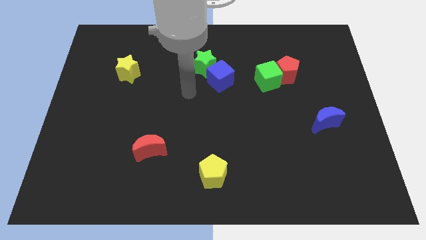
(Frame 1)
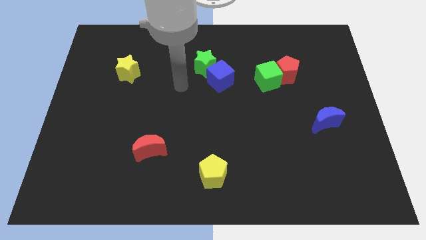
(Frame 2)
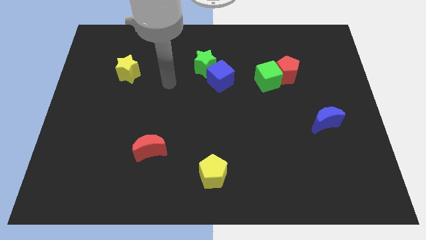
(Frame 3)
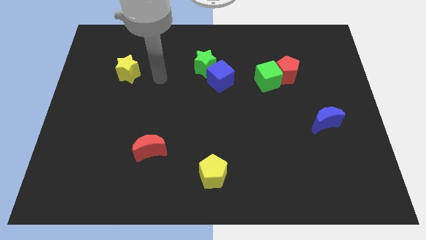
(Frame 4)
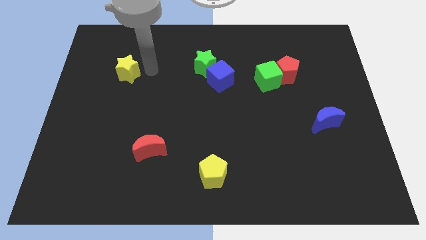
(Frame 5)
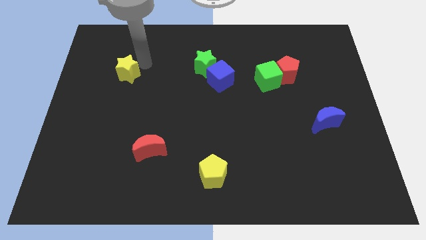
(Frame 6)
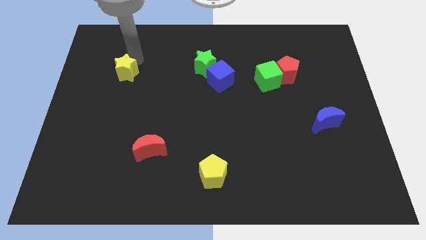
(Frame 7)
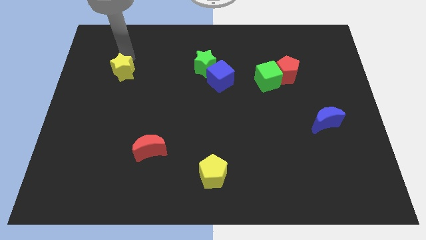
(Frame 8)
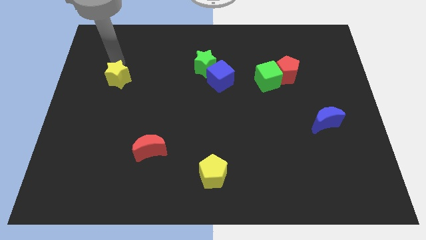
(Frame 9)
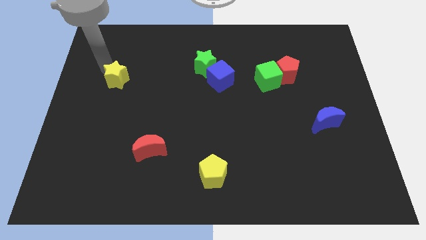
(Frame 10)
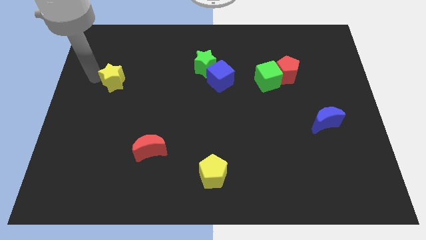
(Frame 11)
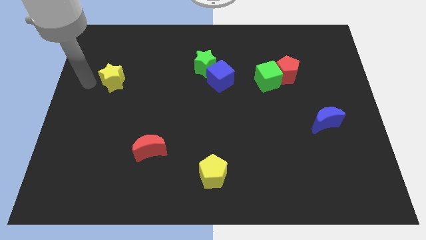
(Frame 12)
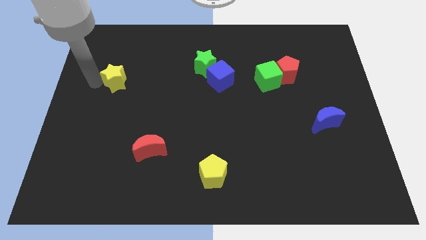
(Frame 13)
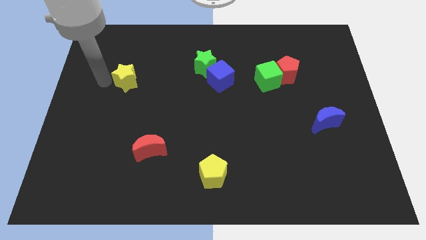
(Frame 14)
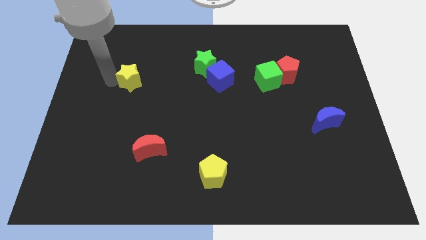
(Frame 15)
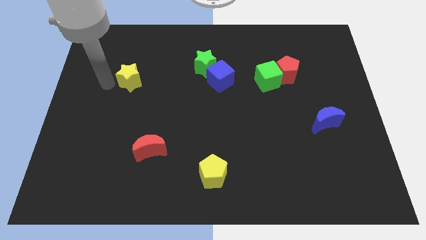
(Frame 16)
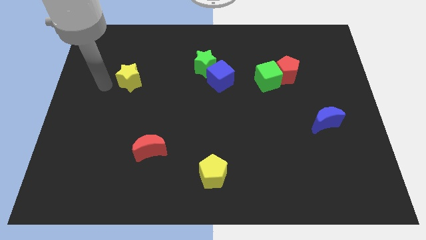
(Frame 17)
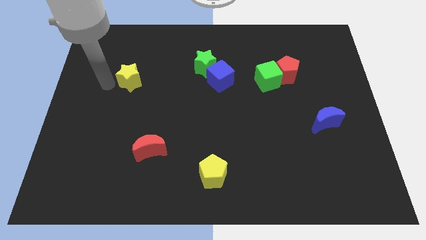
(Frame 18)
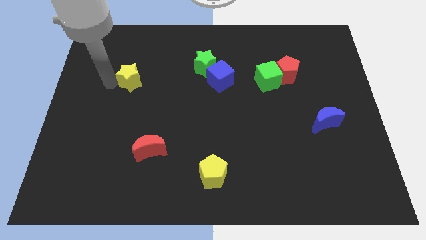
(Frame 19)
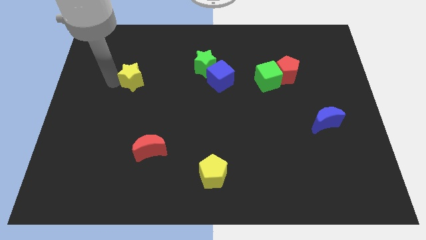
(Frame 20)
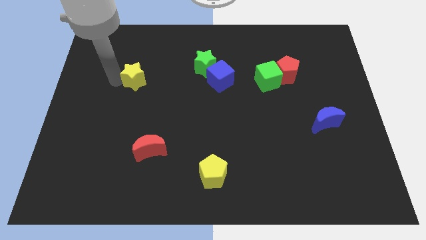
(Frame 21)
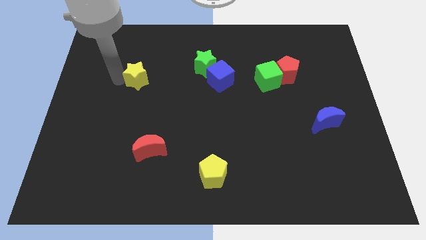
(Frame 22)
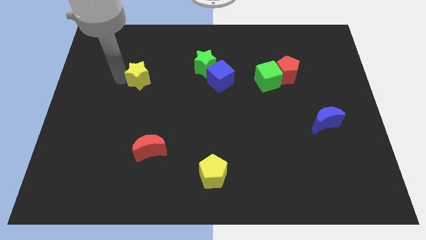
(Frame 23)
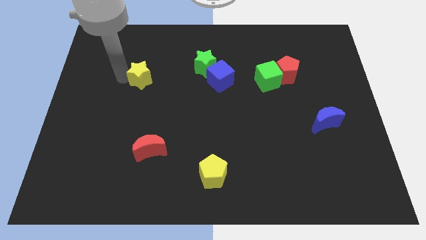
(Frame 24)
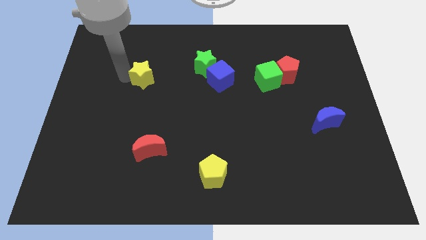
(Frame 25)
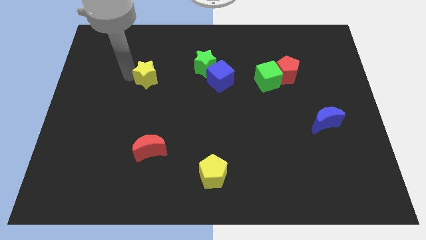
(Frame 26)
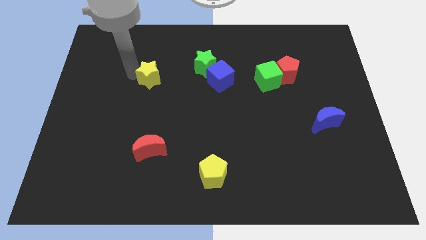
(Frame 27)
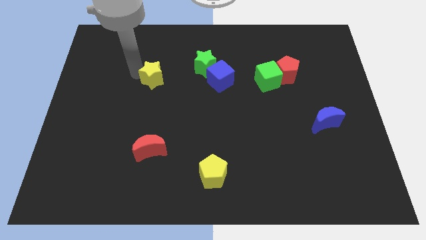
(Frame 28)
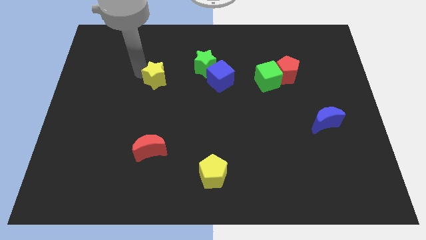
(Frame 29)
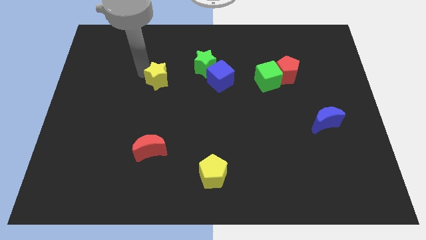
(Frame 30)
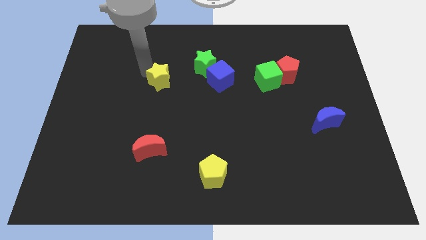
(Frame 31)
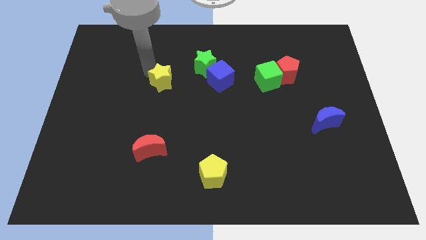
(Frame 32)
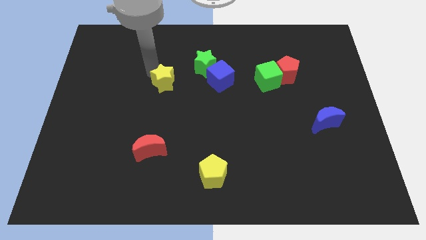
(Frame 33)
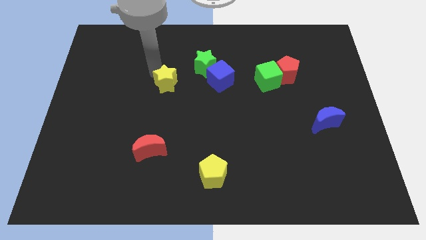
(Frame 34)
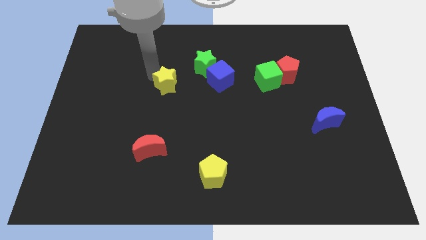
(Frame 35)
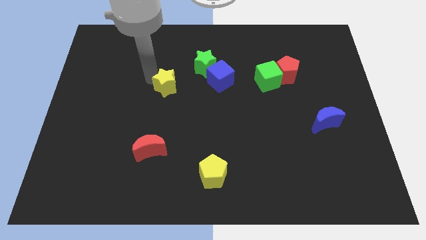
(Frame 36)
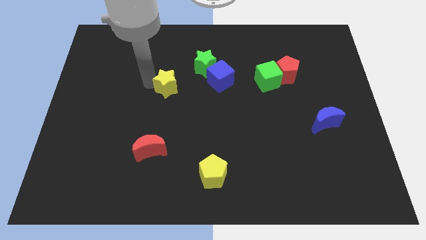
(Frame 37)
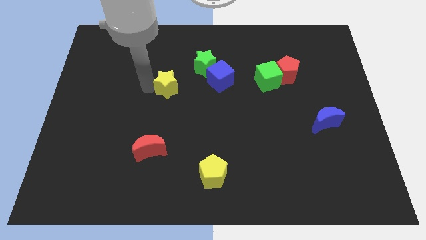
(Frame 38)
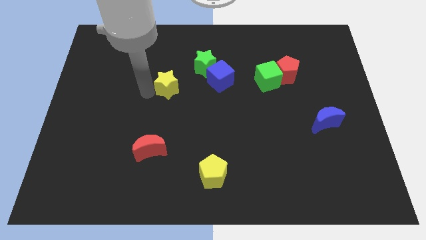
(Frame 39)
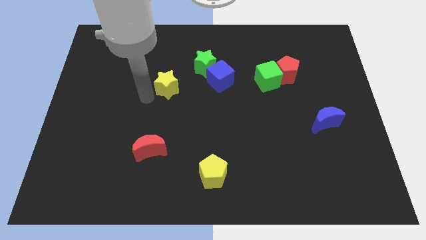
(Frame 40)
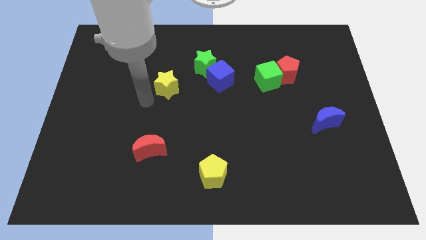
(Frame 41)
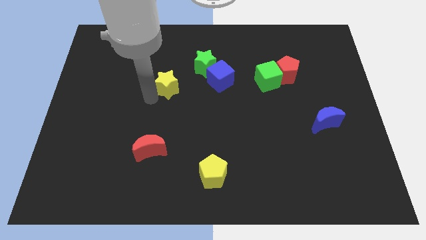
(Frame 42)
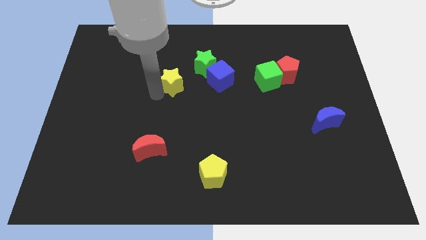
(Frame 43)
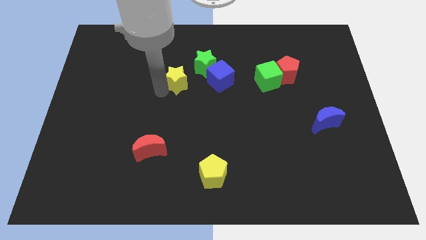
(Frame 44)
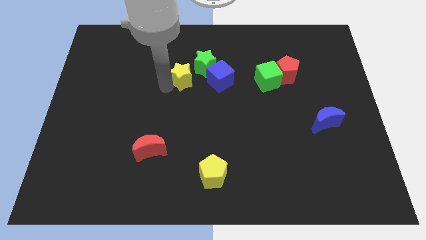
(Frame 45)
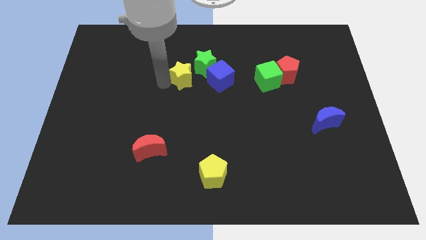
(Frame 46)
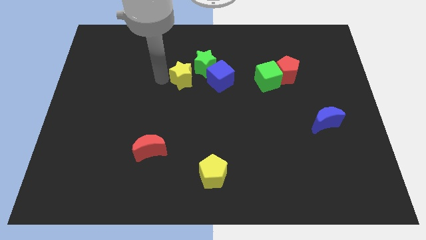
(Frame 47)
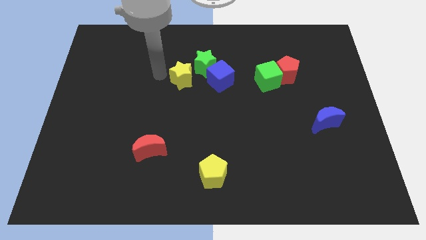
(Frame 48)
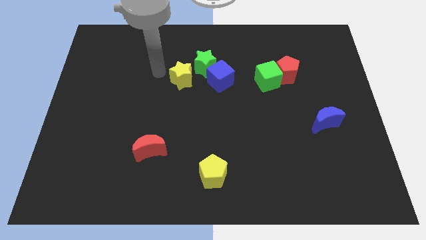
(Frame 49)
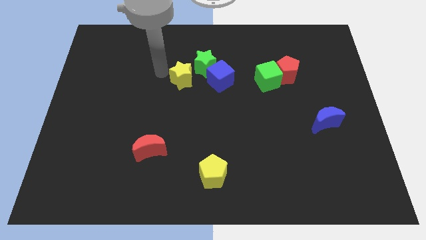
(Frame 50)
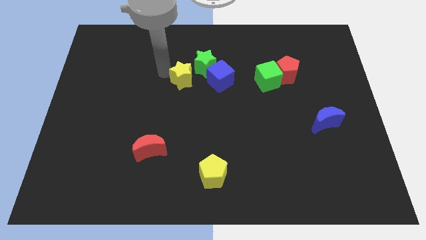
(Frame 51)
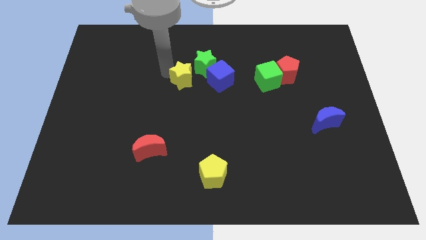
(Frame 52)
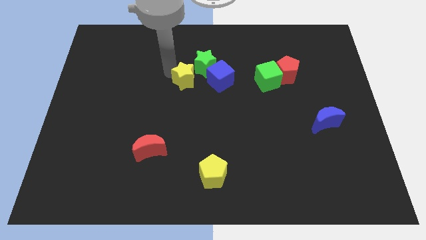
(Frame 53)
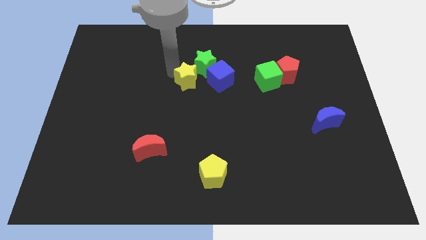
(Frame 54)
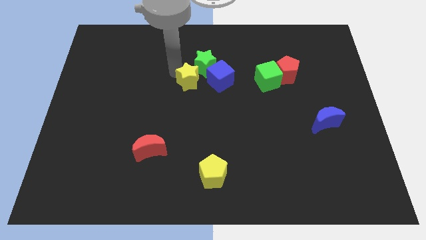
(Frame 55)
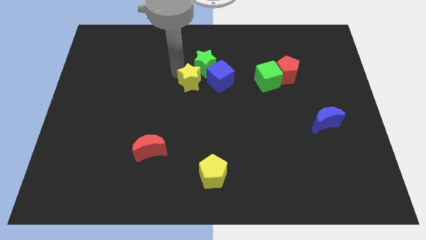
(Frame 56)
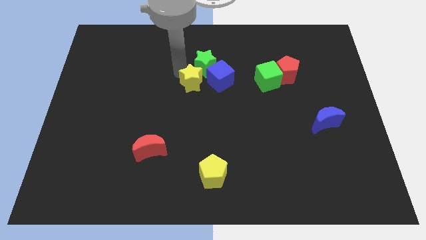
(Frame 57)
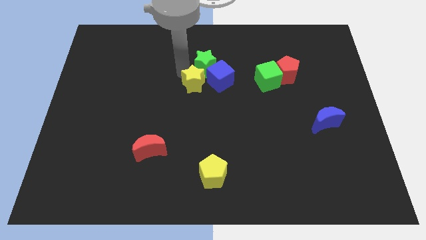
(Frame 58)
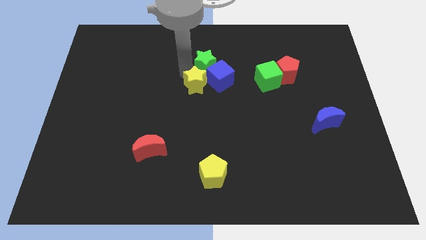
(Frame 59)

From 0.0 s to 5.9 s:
move the yellow star towards the blue cube

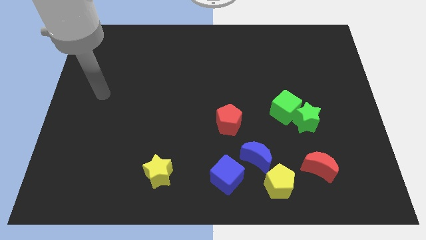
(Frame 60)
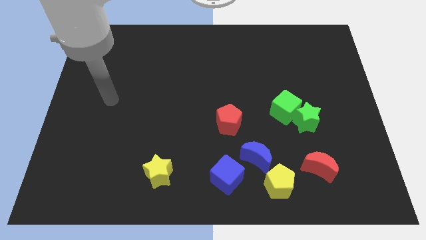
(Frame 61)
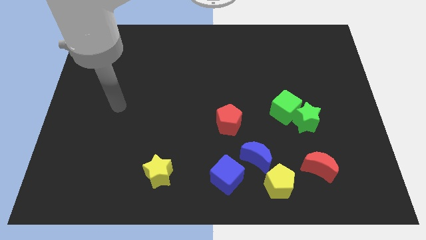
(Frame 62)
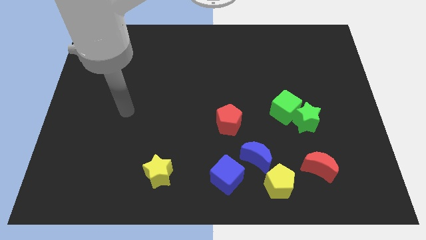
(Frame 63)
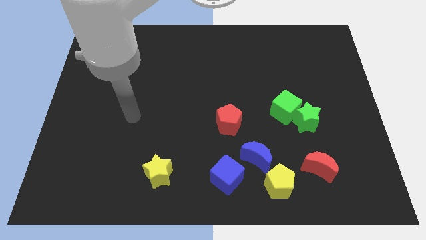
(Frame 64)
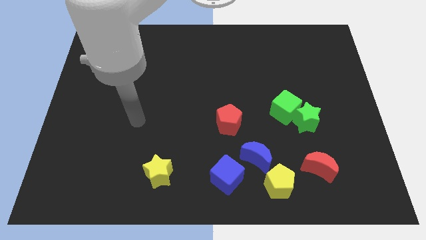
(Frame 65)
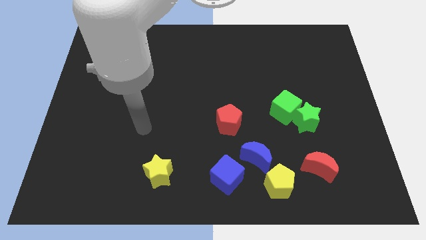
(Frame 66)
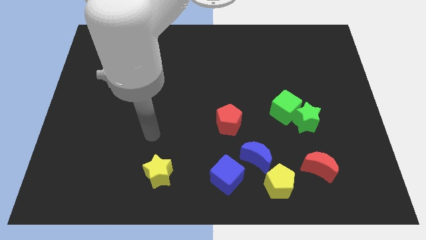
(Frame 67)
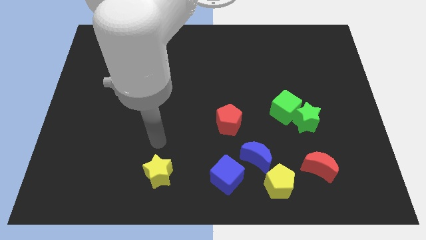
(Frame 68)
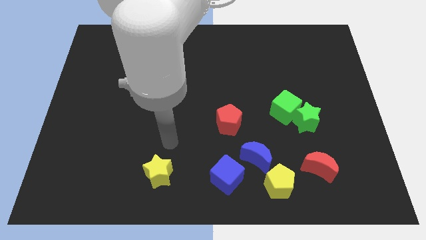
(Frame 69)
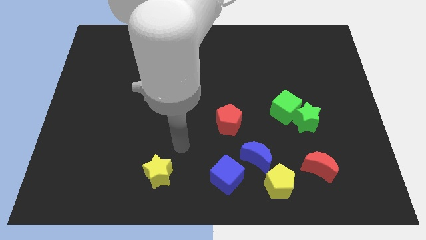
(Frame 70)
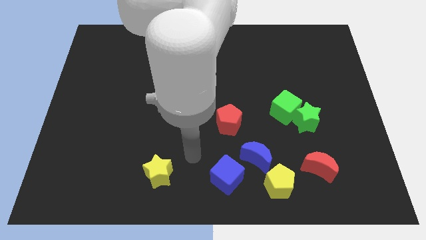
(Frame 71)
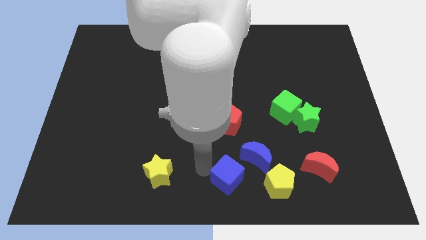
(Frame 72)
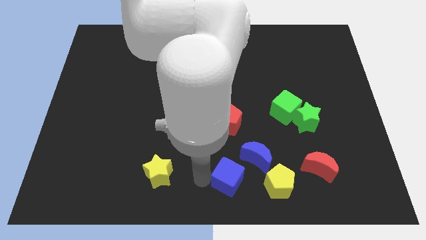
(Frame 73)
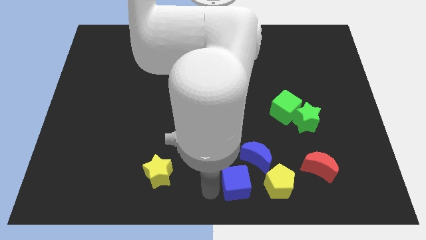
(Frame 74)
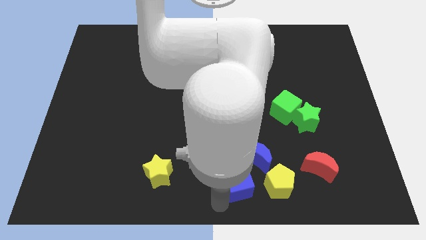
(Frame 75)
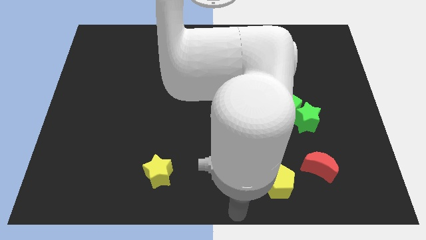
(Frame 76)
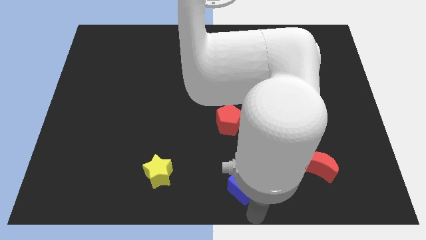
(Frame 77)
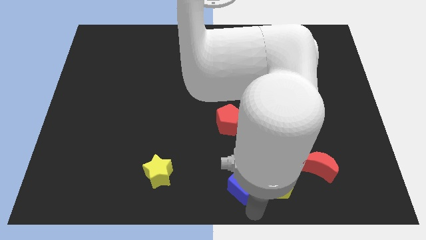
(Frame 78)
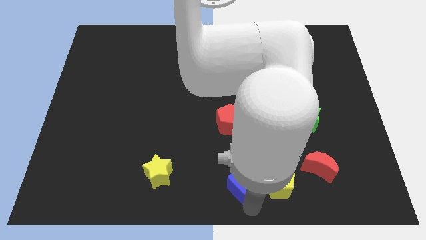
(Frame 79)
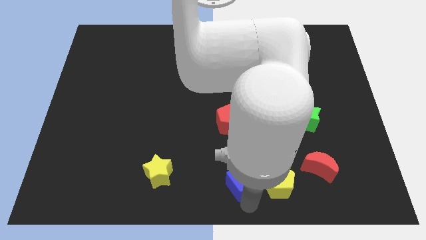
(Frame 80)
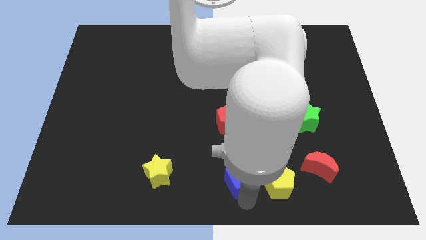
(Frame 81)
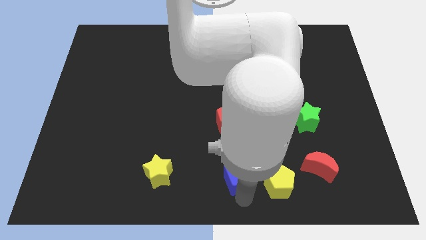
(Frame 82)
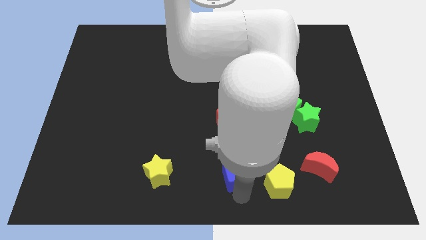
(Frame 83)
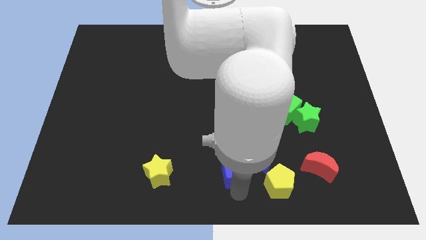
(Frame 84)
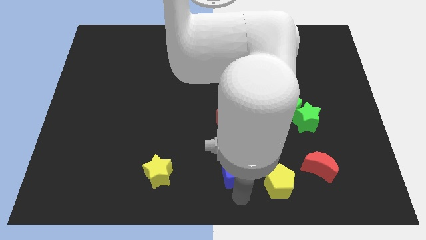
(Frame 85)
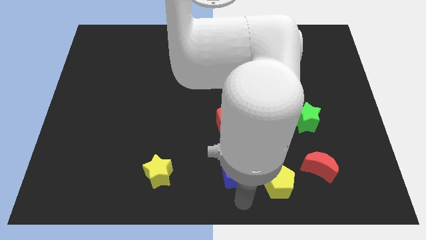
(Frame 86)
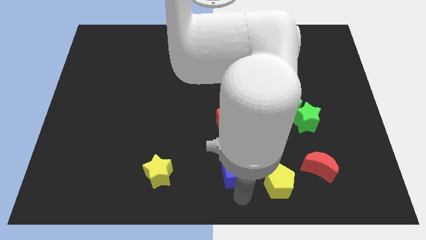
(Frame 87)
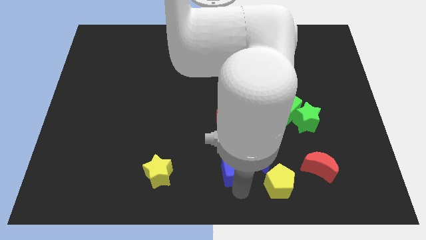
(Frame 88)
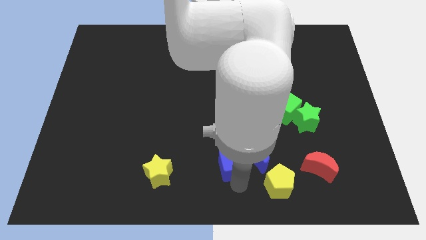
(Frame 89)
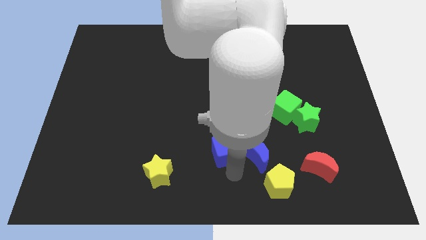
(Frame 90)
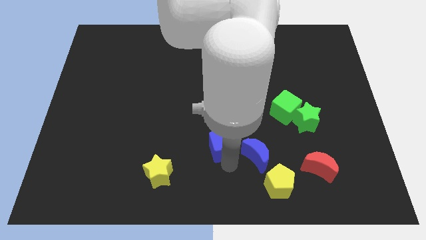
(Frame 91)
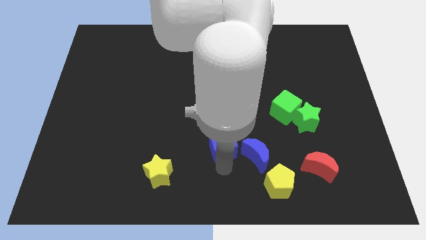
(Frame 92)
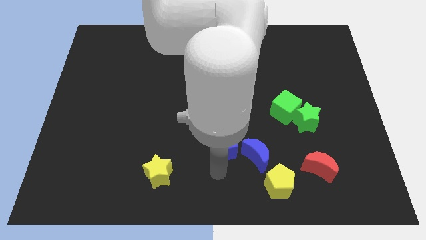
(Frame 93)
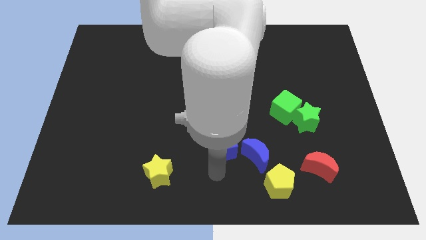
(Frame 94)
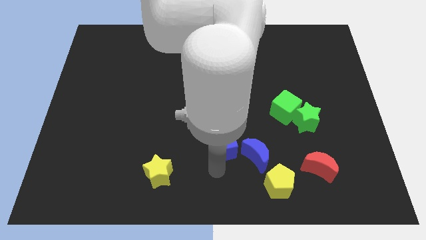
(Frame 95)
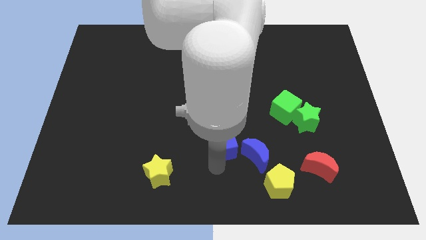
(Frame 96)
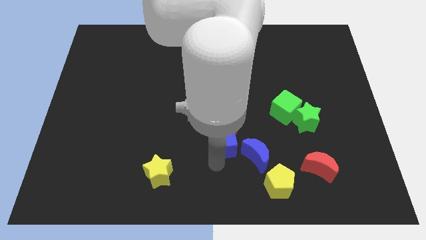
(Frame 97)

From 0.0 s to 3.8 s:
put the blue cube next to the red pentagon
